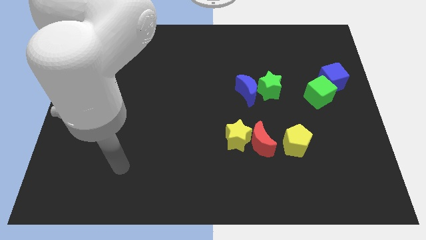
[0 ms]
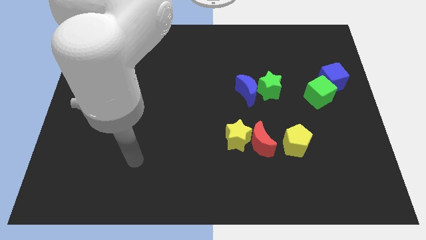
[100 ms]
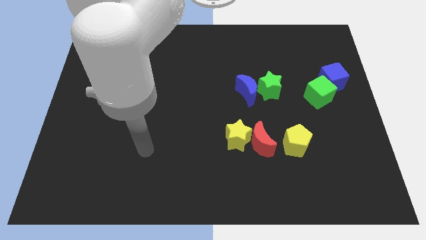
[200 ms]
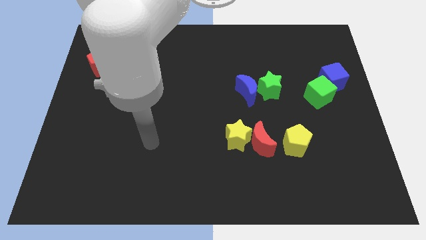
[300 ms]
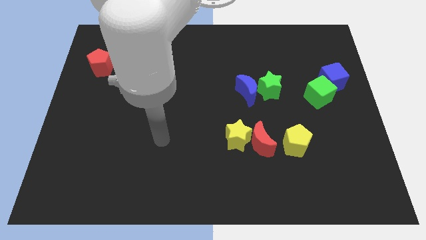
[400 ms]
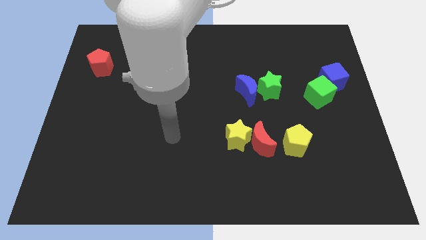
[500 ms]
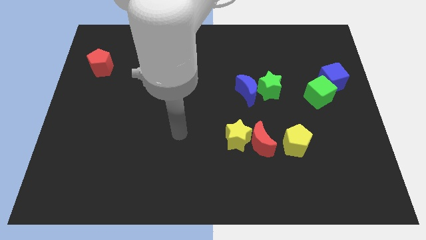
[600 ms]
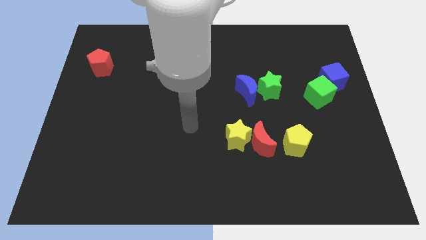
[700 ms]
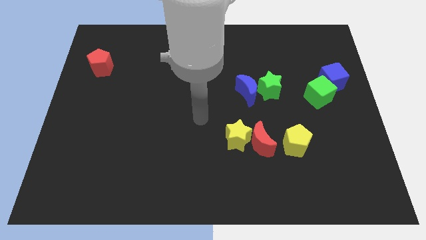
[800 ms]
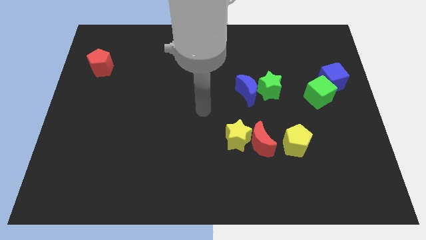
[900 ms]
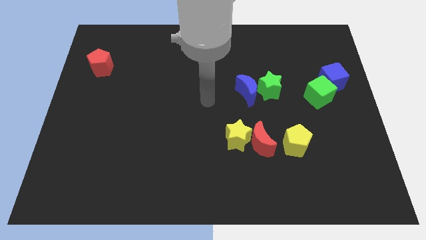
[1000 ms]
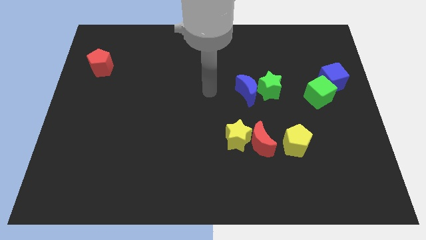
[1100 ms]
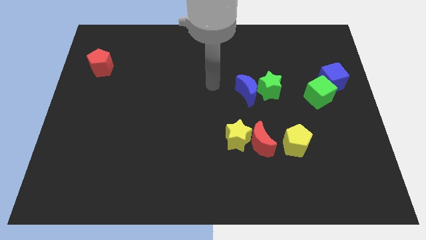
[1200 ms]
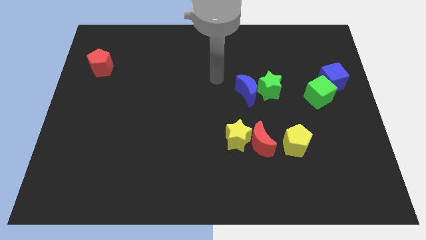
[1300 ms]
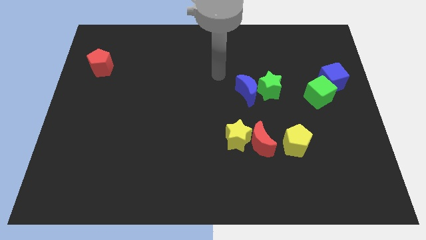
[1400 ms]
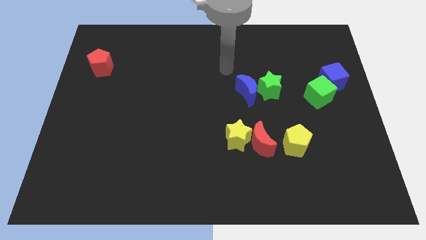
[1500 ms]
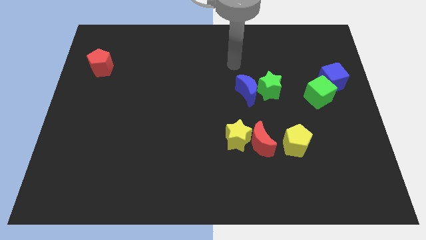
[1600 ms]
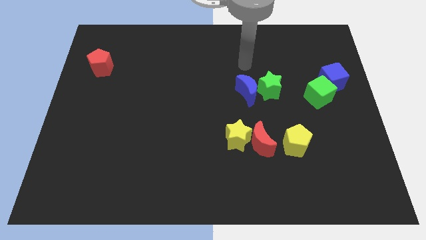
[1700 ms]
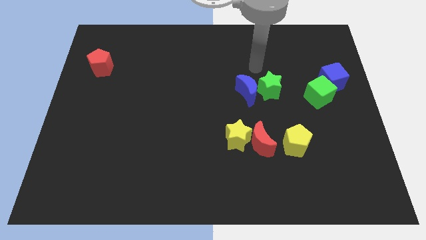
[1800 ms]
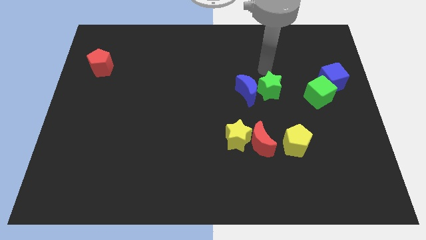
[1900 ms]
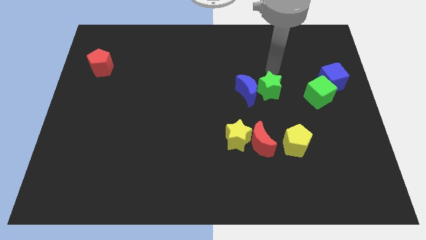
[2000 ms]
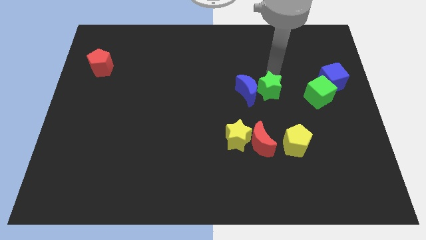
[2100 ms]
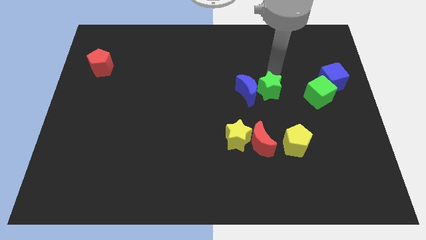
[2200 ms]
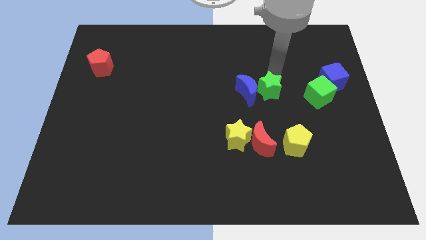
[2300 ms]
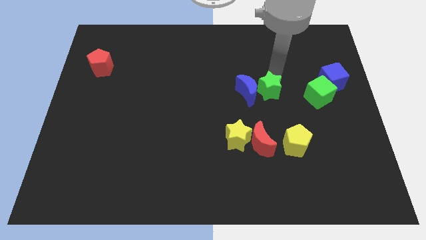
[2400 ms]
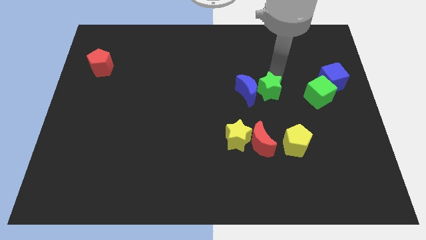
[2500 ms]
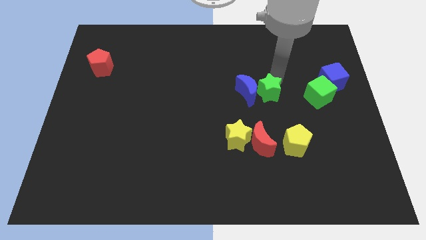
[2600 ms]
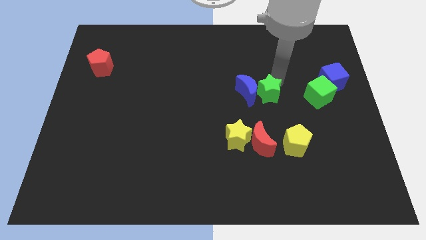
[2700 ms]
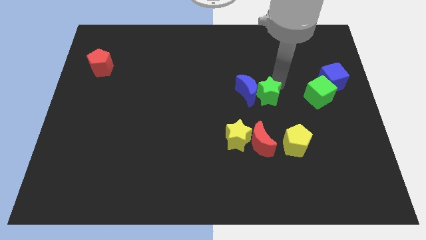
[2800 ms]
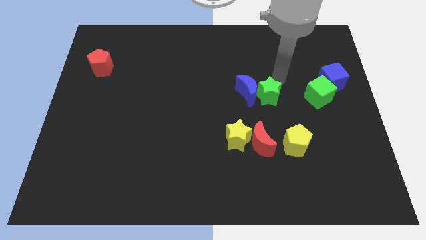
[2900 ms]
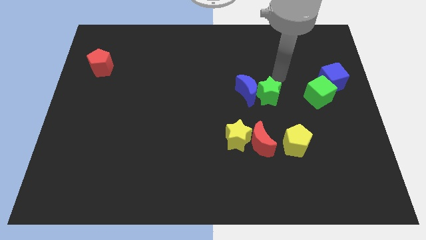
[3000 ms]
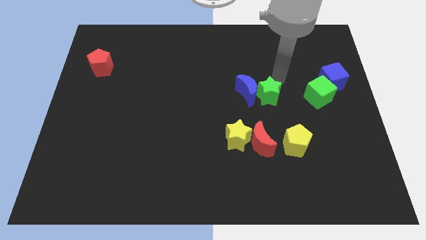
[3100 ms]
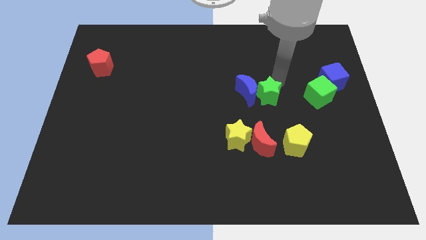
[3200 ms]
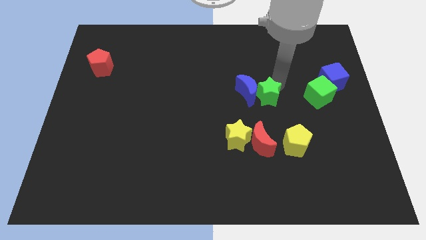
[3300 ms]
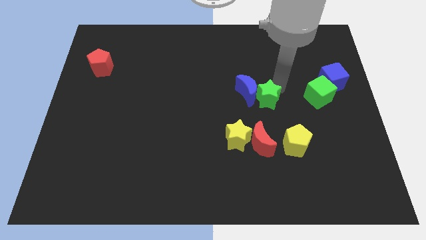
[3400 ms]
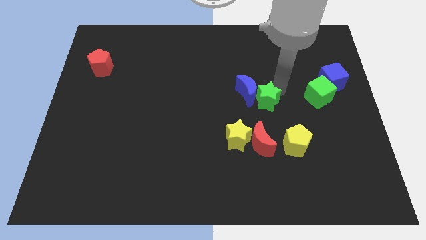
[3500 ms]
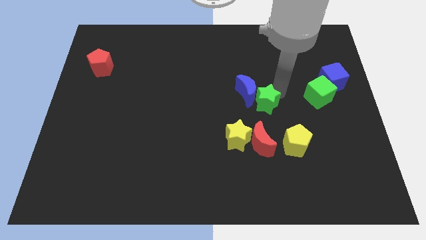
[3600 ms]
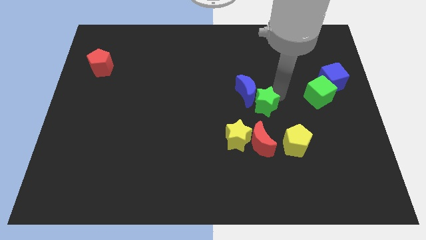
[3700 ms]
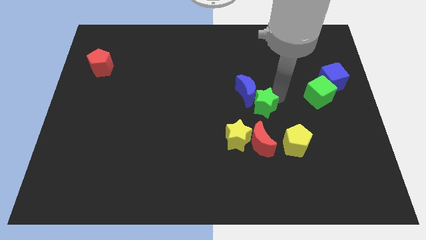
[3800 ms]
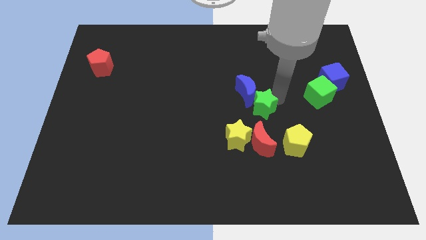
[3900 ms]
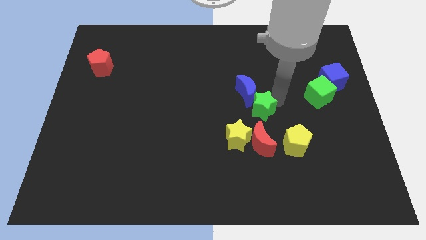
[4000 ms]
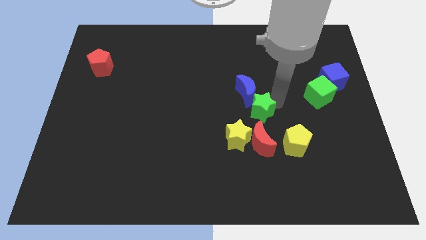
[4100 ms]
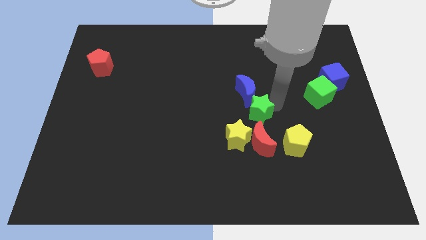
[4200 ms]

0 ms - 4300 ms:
slide the green star down and then left slightly

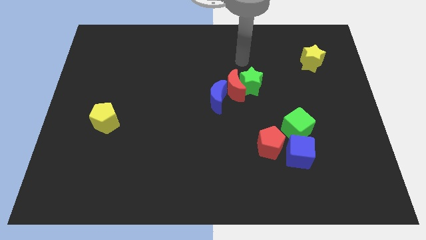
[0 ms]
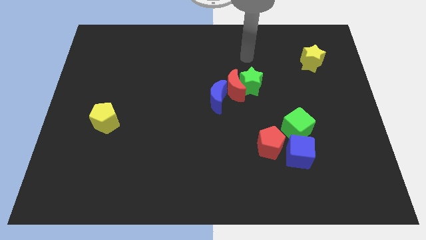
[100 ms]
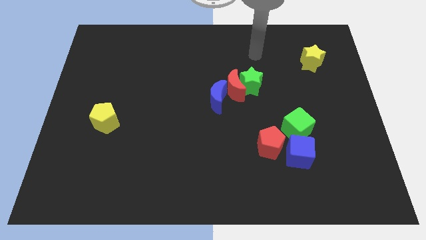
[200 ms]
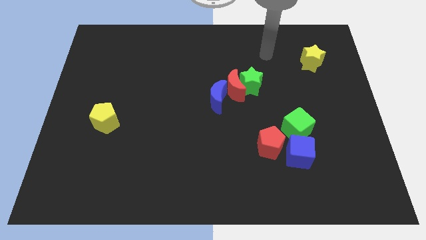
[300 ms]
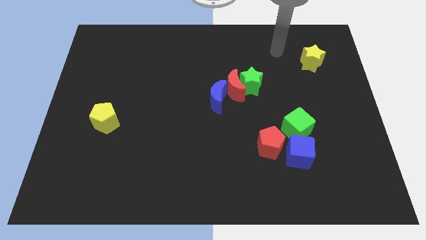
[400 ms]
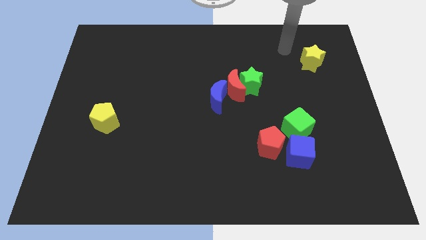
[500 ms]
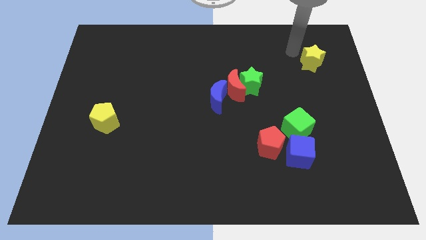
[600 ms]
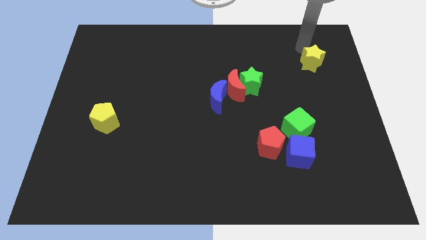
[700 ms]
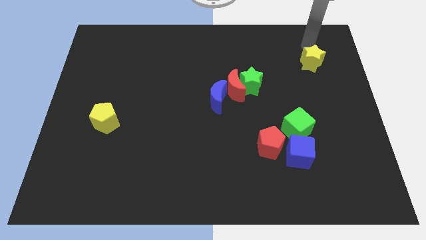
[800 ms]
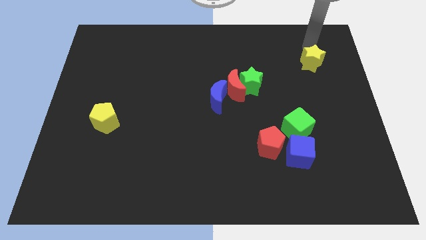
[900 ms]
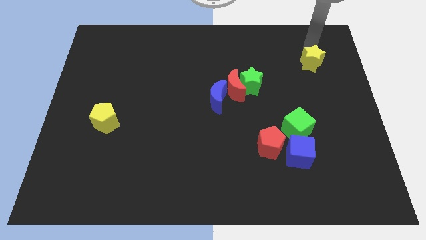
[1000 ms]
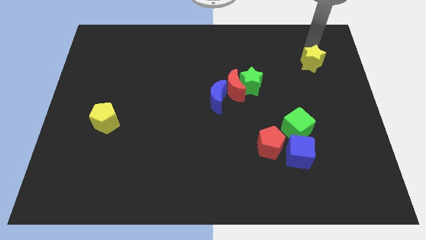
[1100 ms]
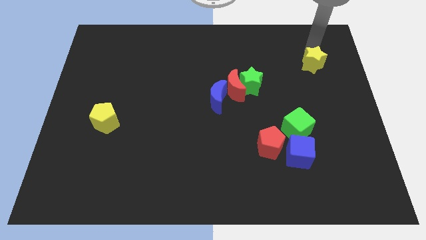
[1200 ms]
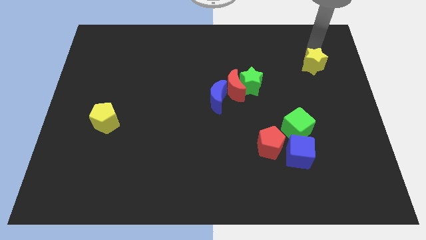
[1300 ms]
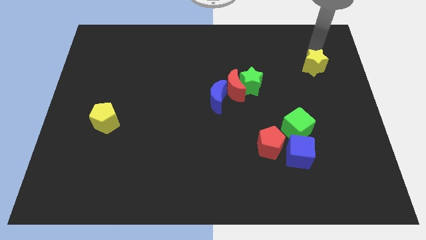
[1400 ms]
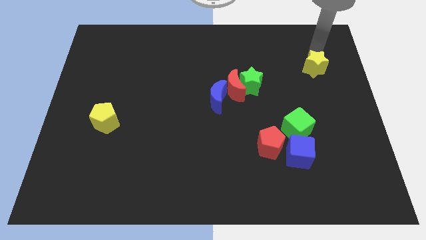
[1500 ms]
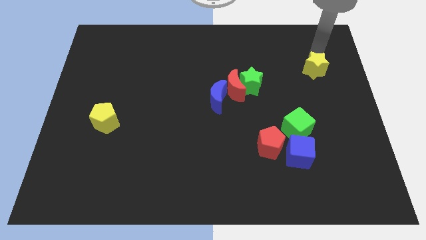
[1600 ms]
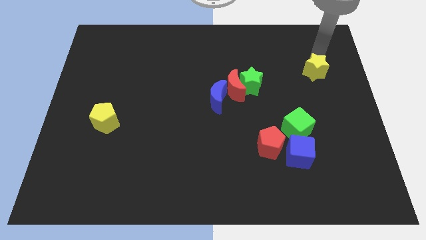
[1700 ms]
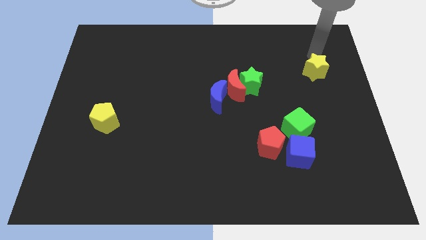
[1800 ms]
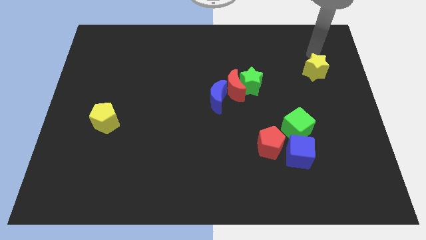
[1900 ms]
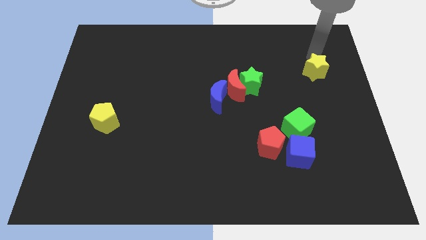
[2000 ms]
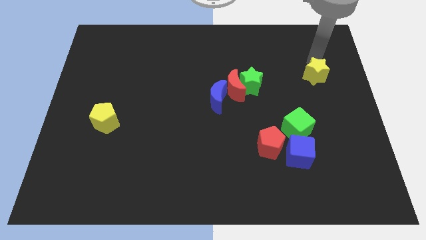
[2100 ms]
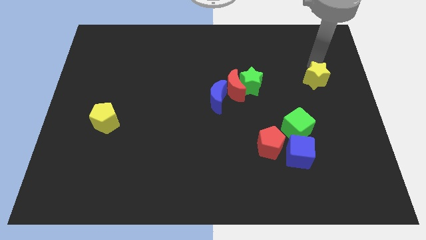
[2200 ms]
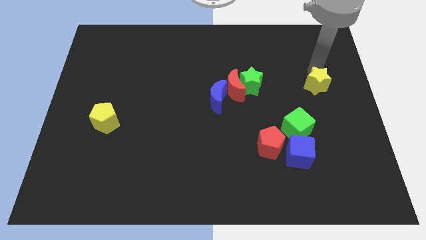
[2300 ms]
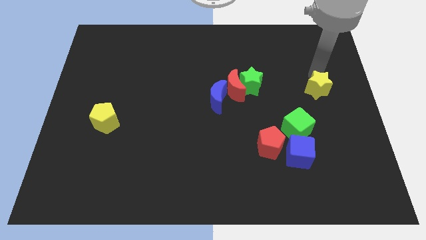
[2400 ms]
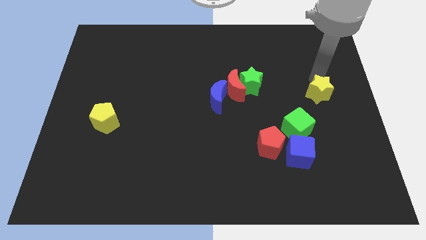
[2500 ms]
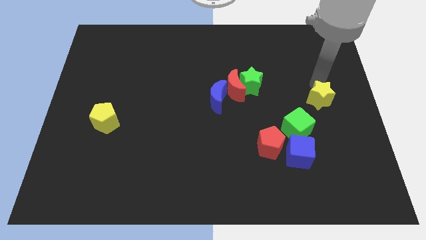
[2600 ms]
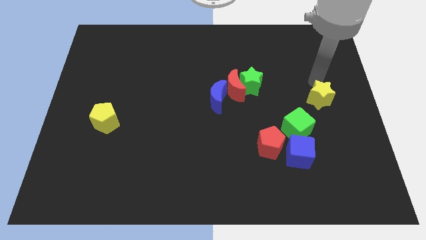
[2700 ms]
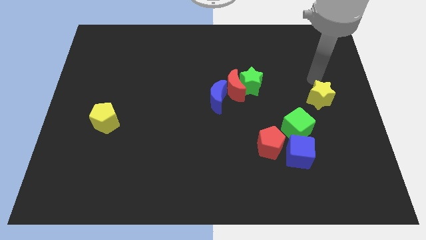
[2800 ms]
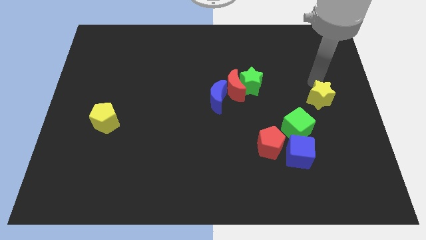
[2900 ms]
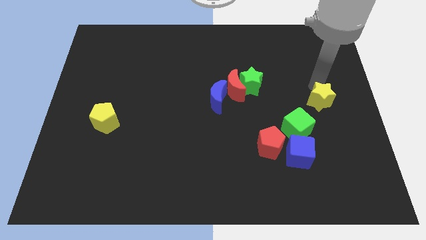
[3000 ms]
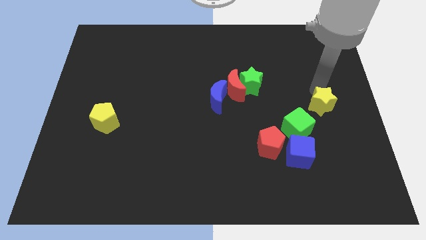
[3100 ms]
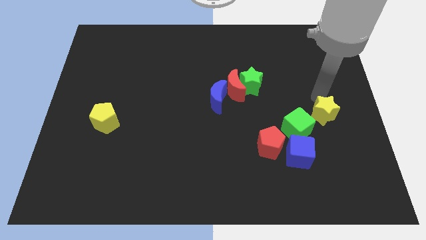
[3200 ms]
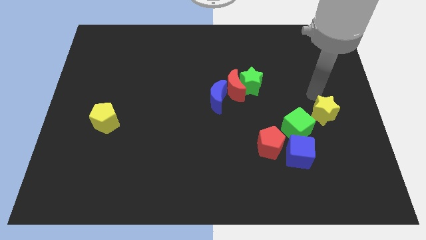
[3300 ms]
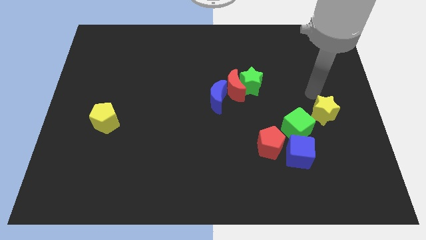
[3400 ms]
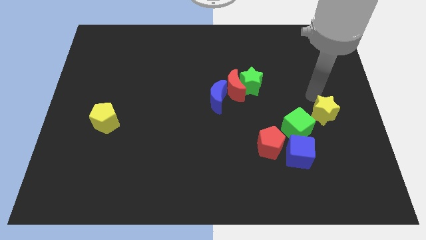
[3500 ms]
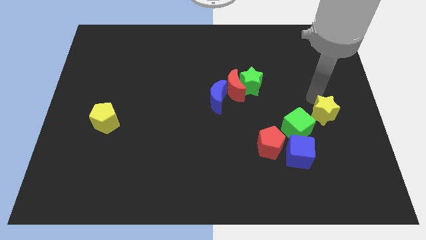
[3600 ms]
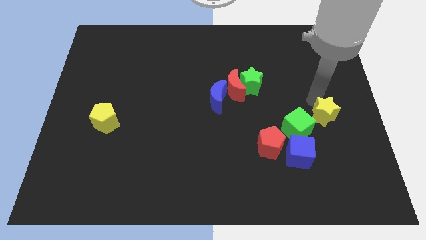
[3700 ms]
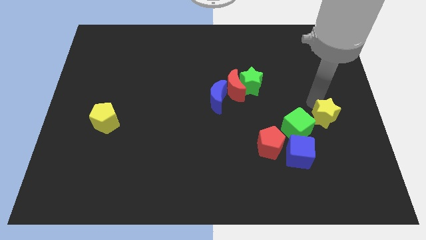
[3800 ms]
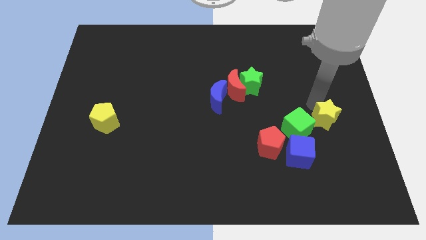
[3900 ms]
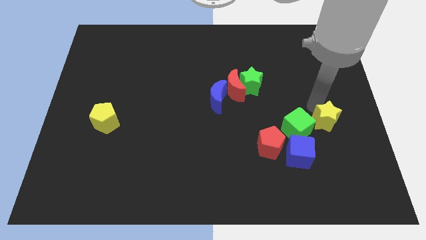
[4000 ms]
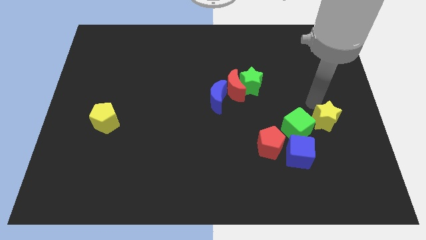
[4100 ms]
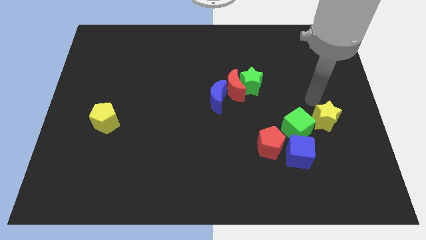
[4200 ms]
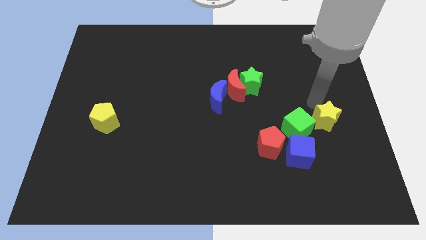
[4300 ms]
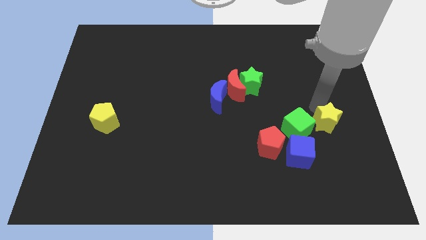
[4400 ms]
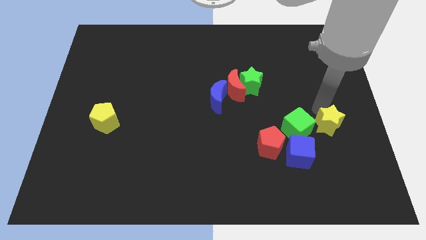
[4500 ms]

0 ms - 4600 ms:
push the yellow star downwards
